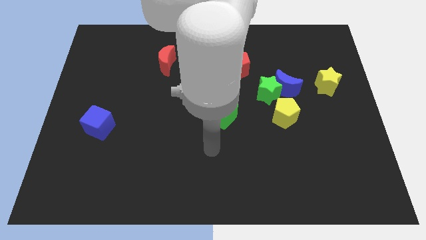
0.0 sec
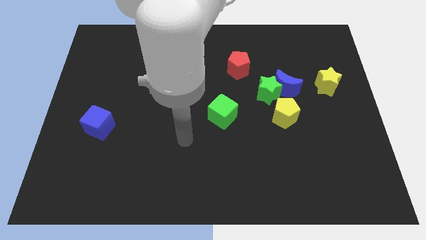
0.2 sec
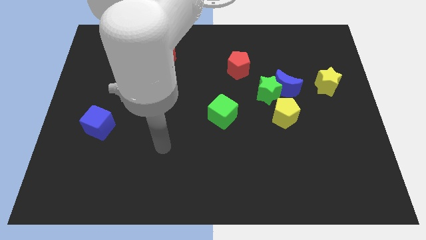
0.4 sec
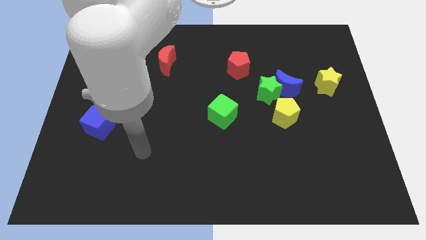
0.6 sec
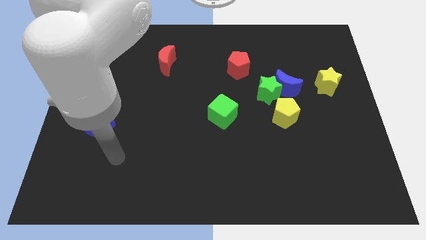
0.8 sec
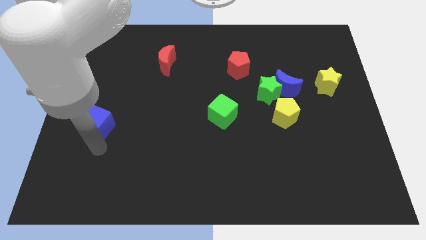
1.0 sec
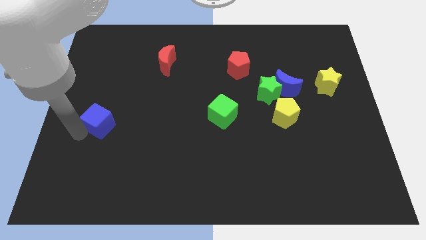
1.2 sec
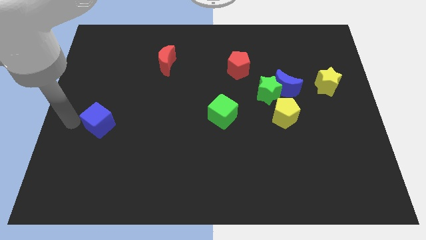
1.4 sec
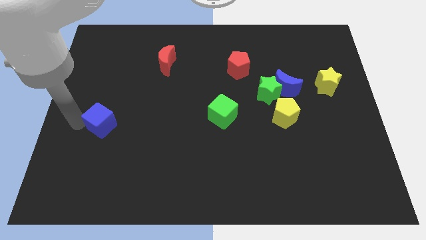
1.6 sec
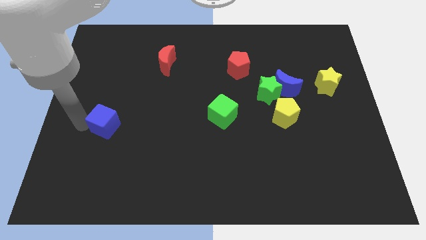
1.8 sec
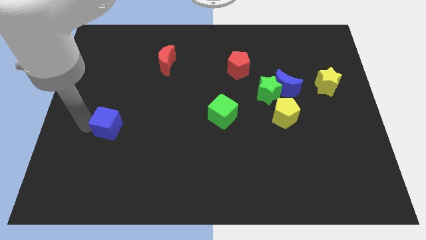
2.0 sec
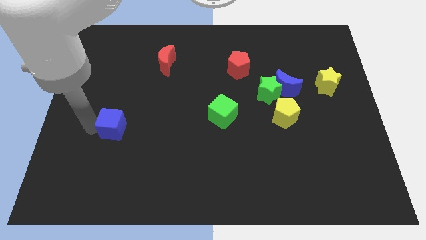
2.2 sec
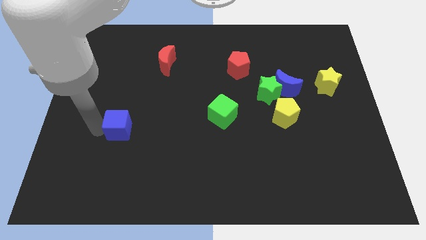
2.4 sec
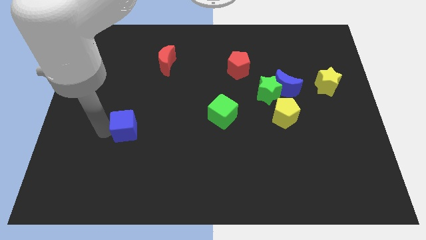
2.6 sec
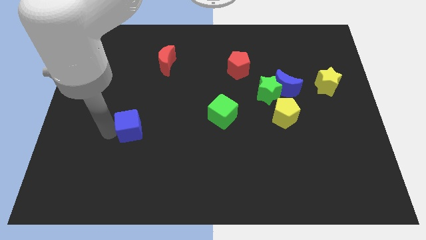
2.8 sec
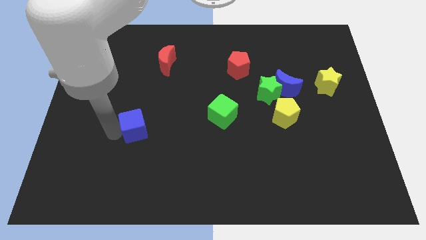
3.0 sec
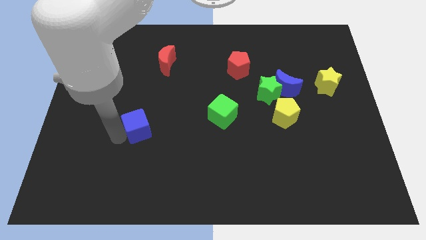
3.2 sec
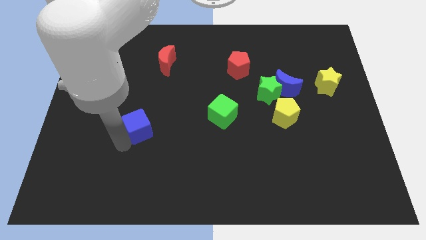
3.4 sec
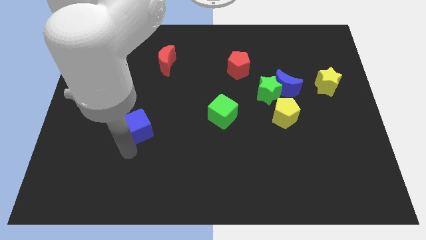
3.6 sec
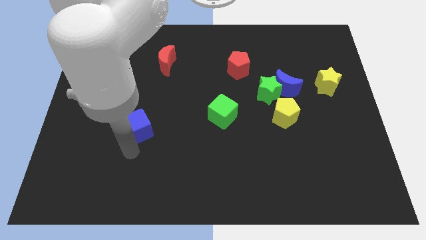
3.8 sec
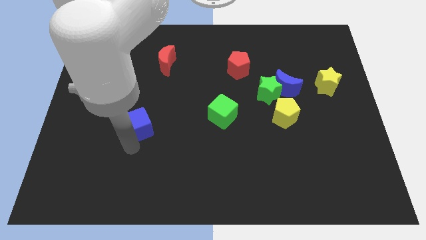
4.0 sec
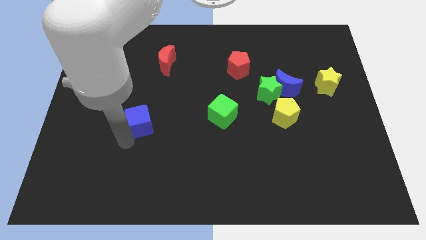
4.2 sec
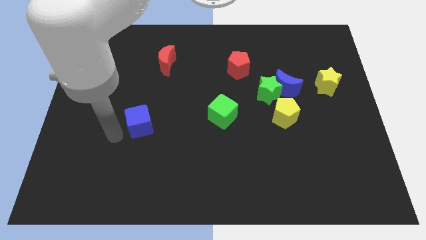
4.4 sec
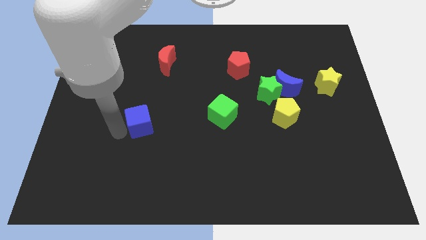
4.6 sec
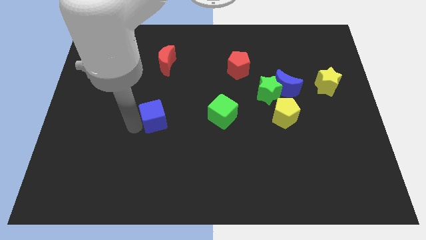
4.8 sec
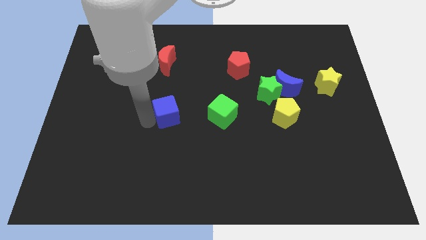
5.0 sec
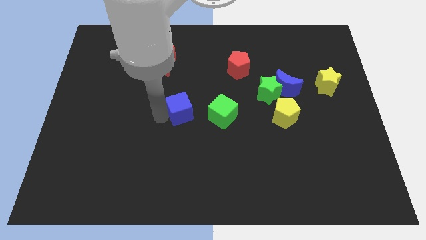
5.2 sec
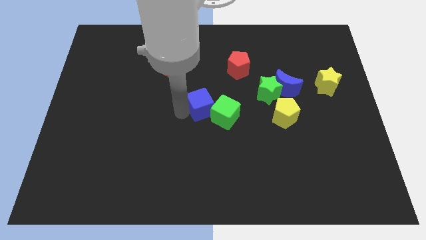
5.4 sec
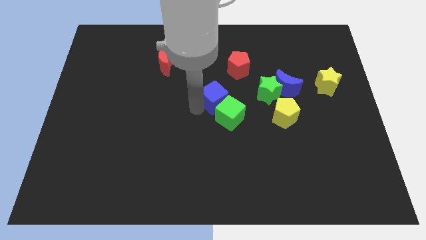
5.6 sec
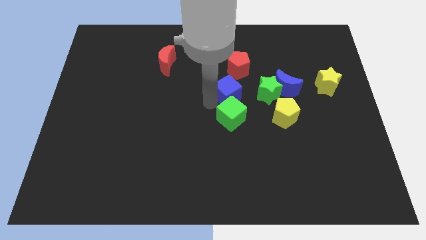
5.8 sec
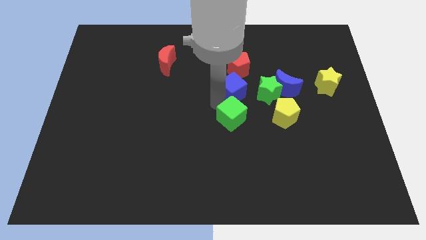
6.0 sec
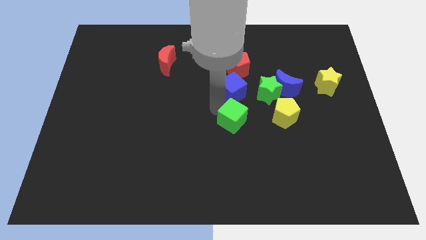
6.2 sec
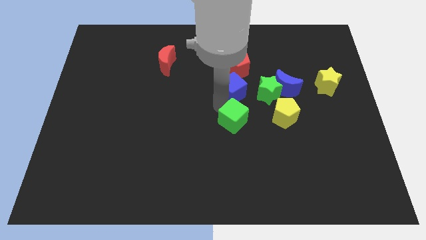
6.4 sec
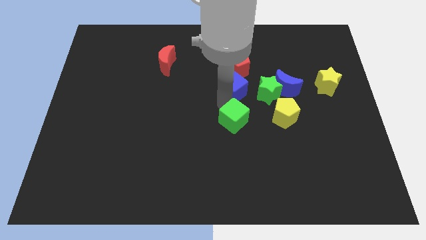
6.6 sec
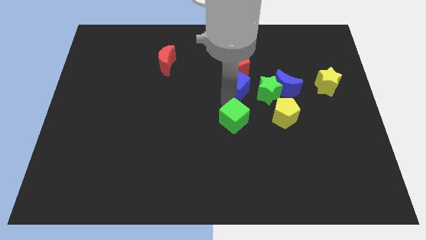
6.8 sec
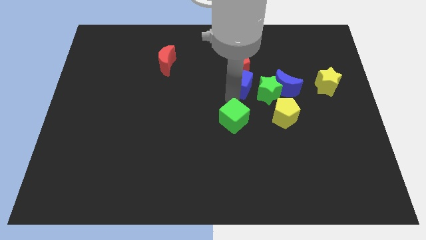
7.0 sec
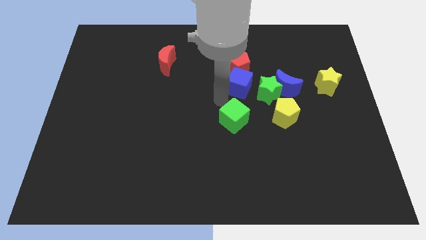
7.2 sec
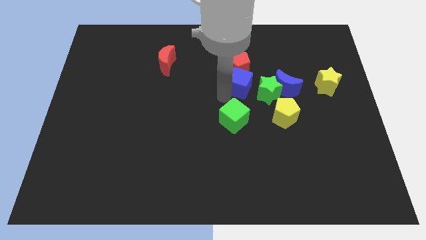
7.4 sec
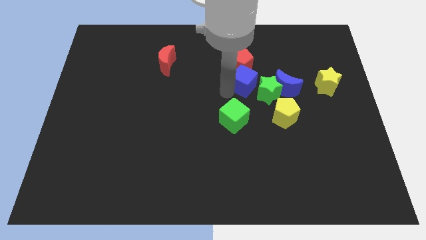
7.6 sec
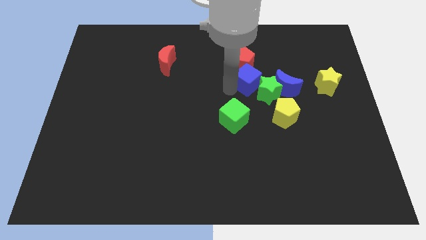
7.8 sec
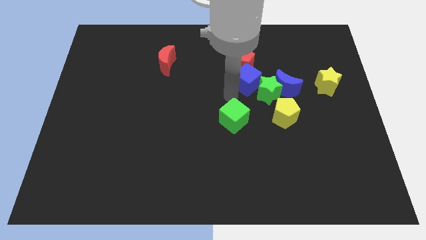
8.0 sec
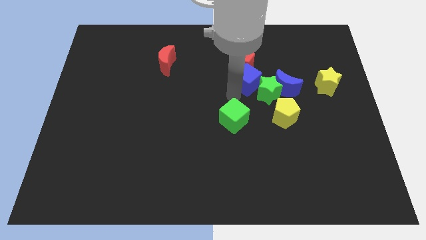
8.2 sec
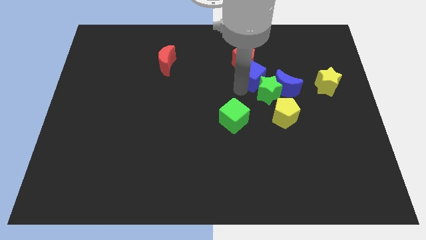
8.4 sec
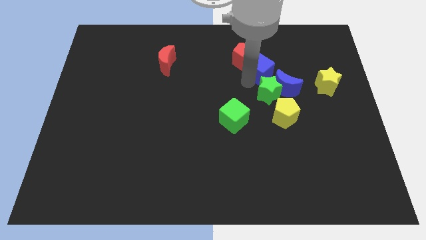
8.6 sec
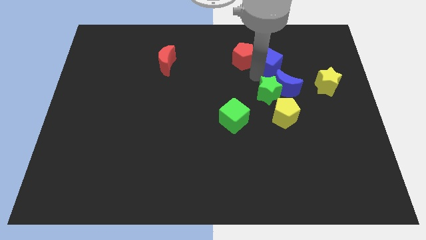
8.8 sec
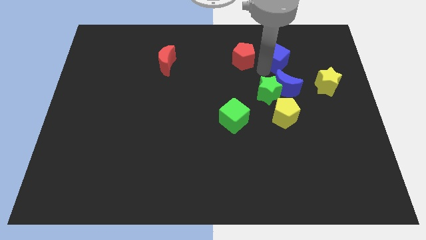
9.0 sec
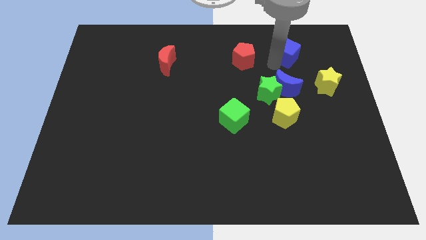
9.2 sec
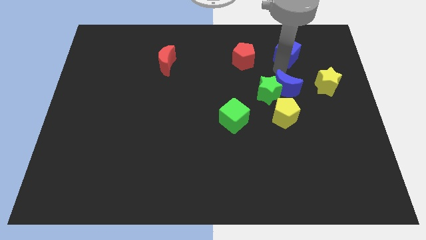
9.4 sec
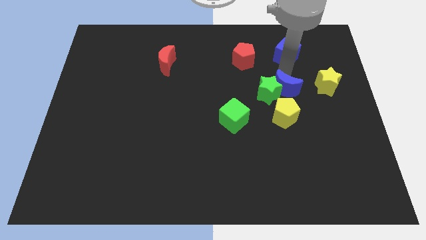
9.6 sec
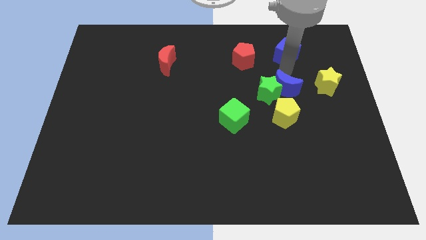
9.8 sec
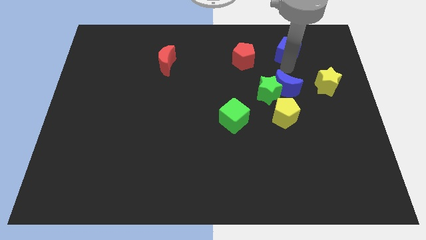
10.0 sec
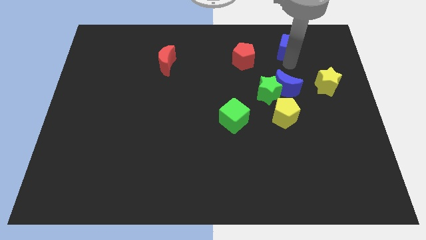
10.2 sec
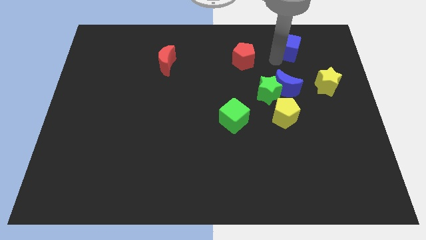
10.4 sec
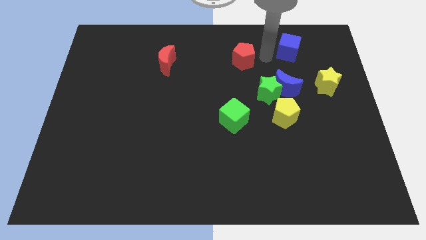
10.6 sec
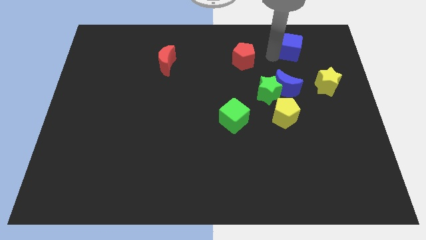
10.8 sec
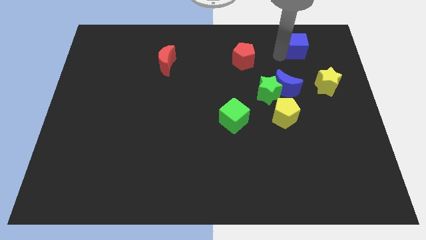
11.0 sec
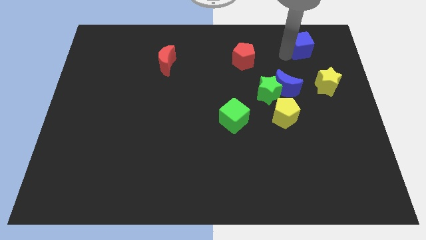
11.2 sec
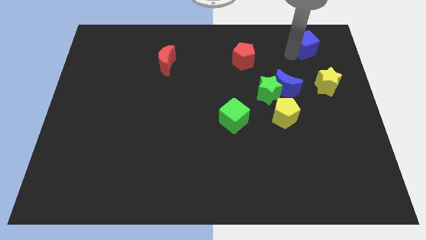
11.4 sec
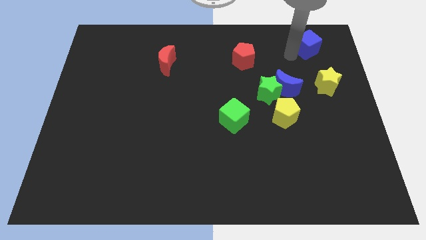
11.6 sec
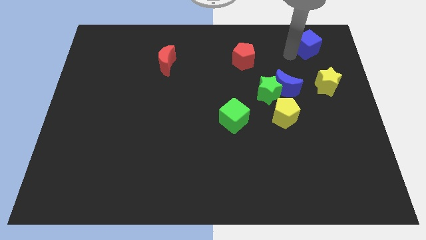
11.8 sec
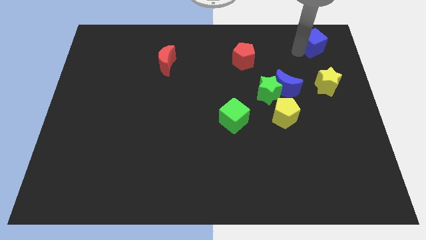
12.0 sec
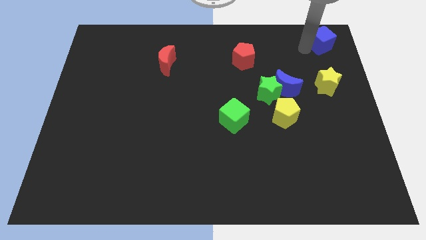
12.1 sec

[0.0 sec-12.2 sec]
move the blue cube to the upper right corner
